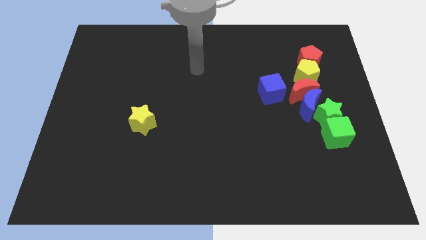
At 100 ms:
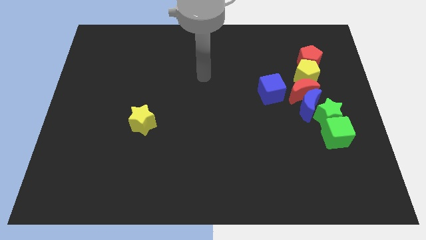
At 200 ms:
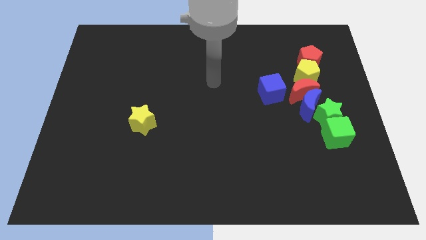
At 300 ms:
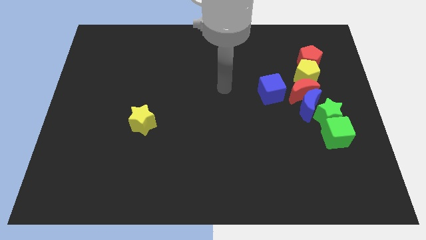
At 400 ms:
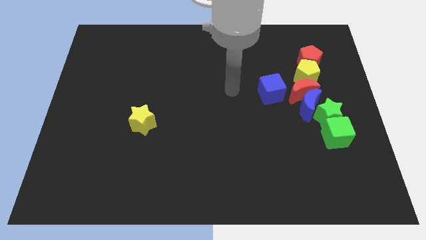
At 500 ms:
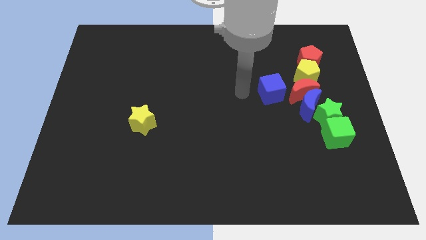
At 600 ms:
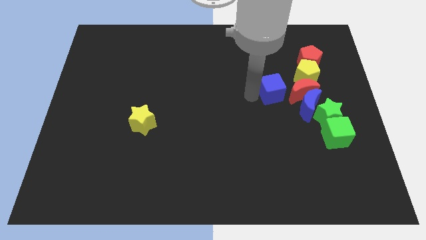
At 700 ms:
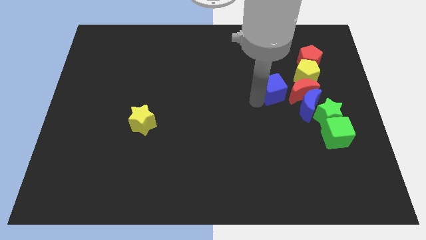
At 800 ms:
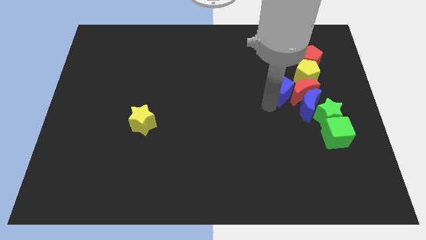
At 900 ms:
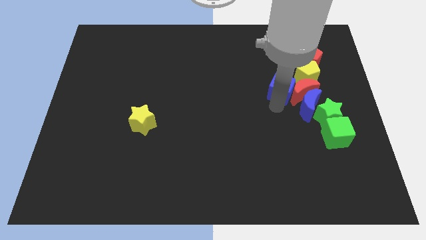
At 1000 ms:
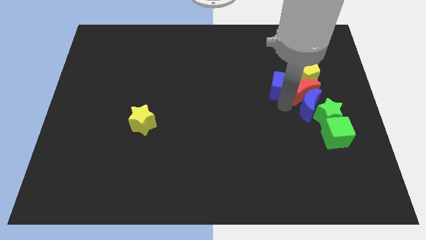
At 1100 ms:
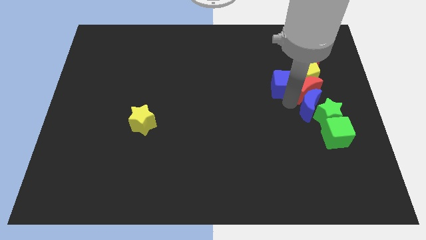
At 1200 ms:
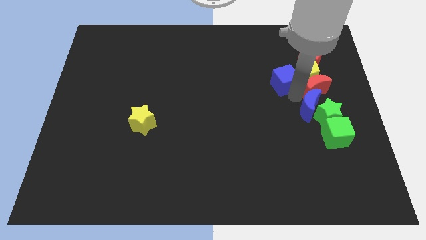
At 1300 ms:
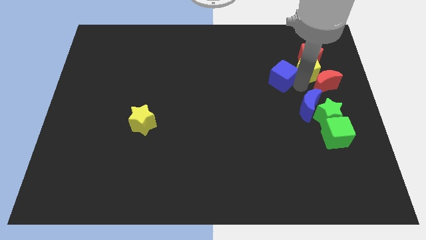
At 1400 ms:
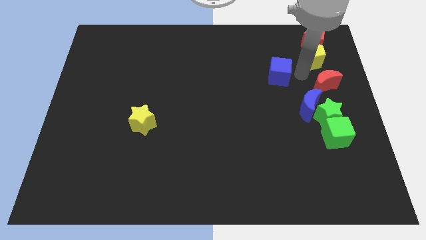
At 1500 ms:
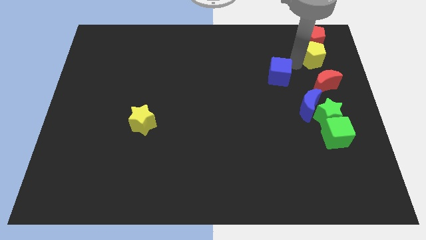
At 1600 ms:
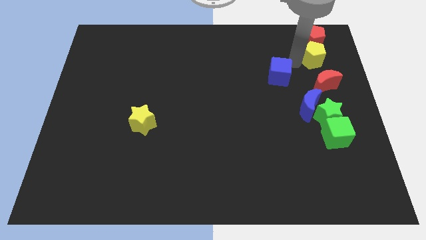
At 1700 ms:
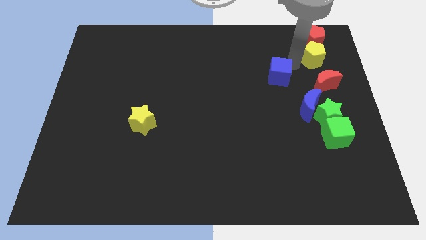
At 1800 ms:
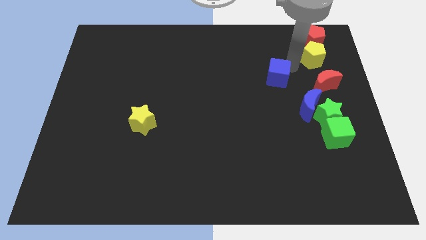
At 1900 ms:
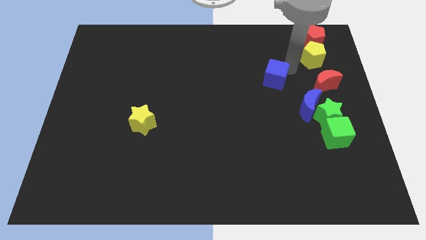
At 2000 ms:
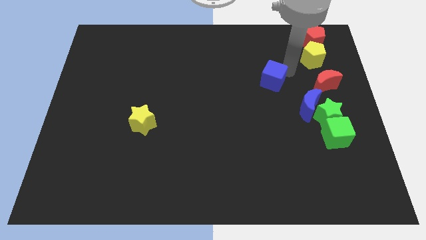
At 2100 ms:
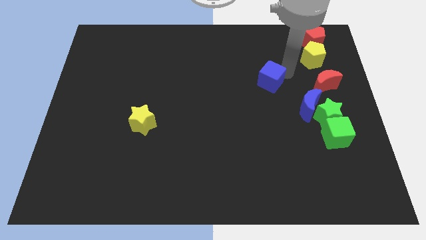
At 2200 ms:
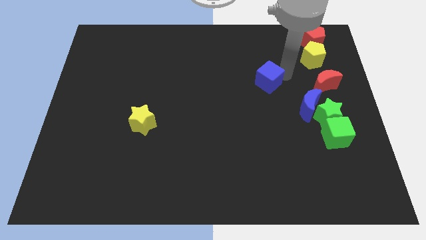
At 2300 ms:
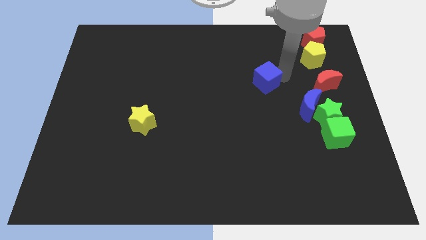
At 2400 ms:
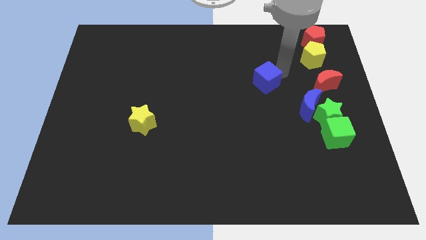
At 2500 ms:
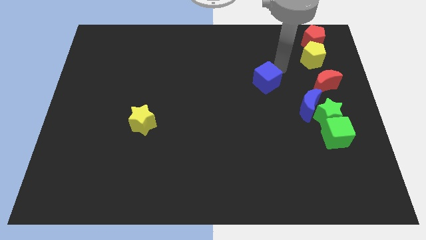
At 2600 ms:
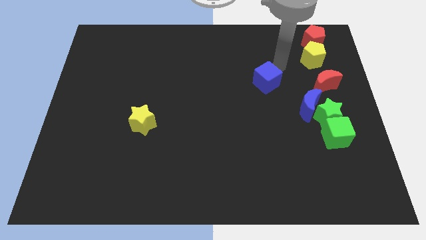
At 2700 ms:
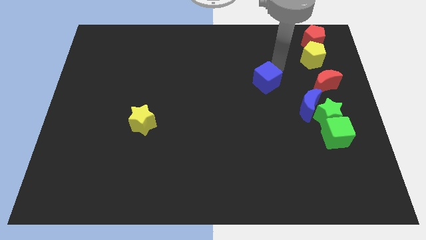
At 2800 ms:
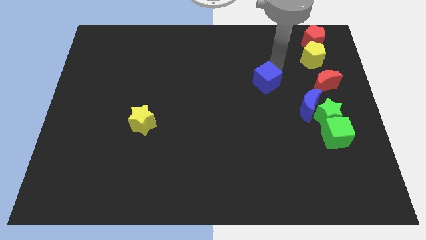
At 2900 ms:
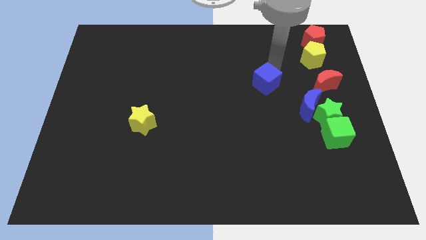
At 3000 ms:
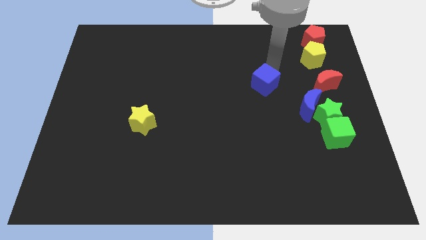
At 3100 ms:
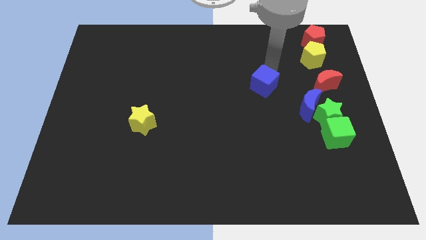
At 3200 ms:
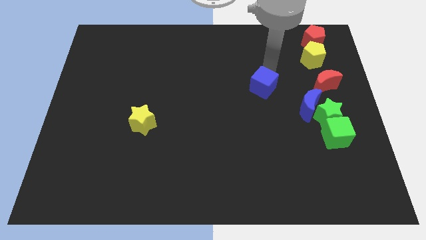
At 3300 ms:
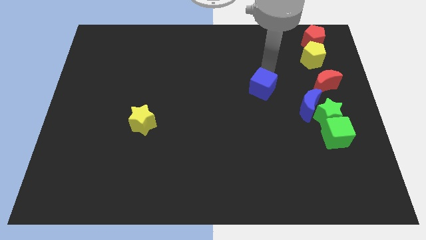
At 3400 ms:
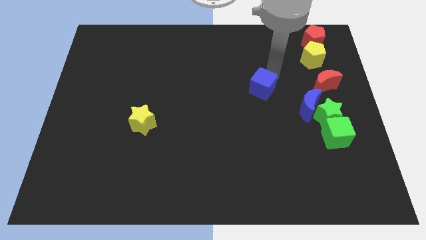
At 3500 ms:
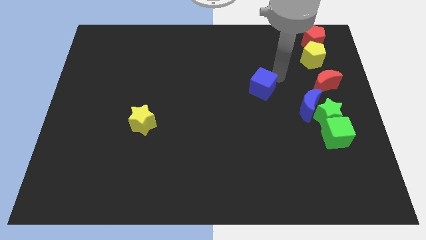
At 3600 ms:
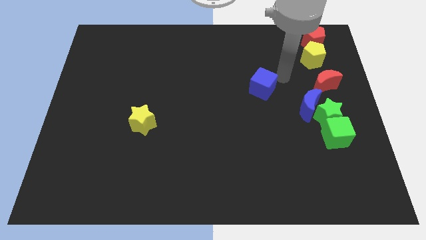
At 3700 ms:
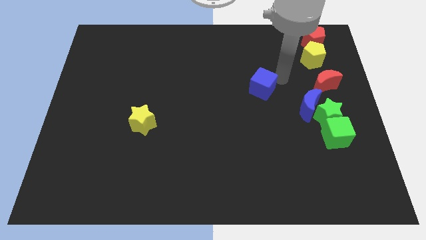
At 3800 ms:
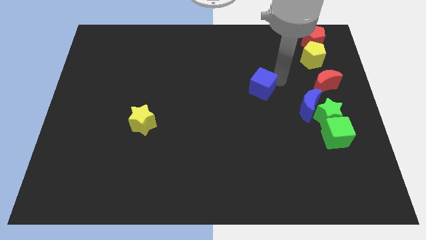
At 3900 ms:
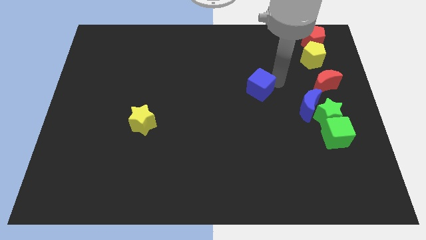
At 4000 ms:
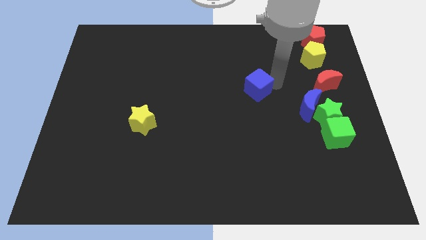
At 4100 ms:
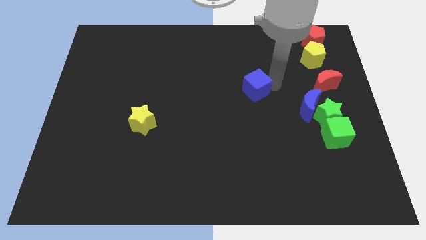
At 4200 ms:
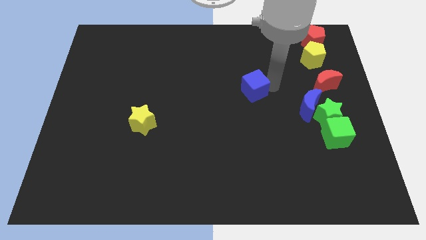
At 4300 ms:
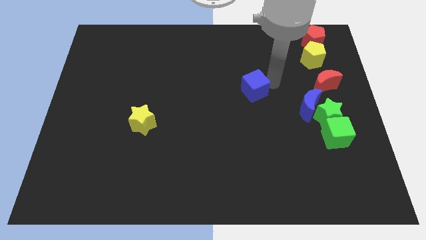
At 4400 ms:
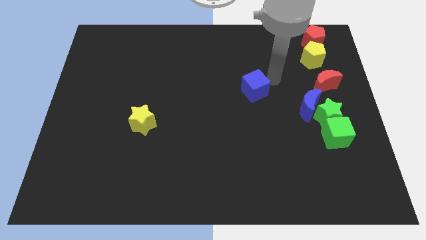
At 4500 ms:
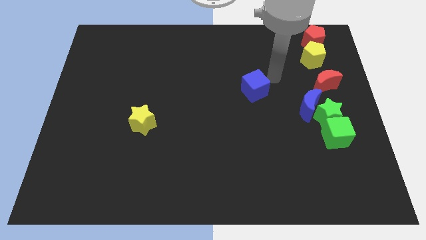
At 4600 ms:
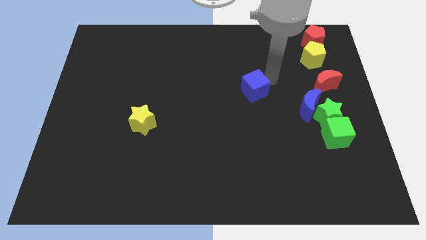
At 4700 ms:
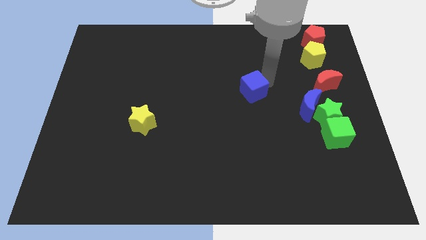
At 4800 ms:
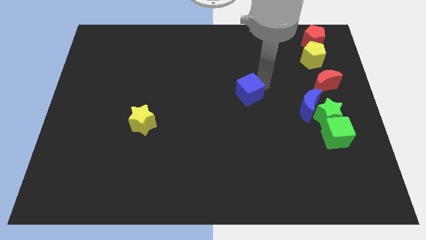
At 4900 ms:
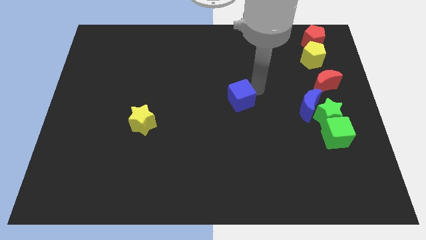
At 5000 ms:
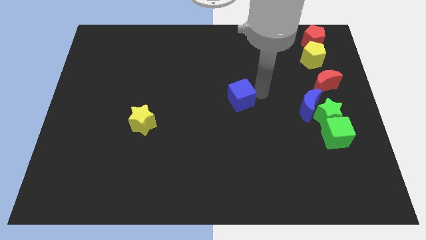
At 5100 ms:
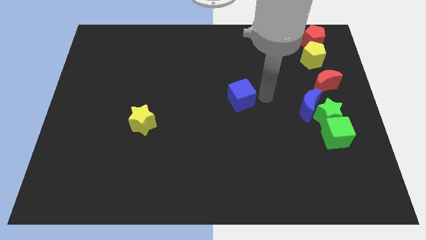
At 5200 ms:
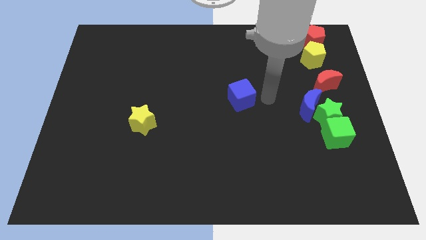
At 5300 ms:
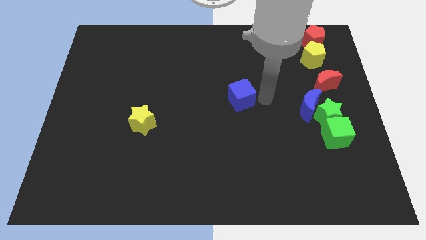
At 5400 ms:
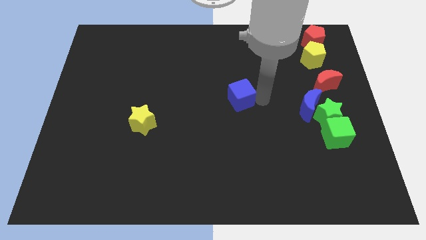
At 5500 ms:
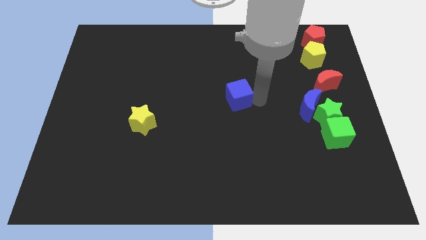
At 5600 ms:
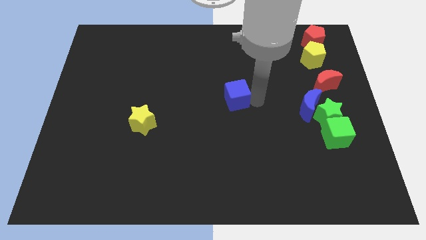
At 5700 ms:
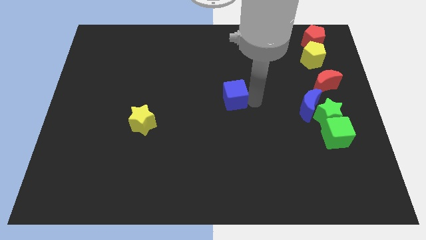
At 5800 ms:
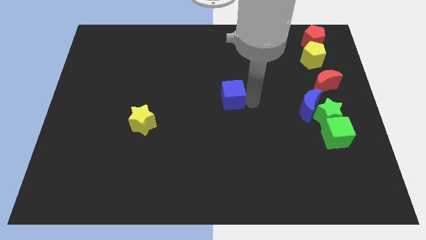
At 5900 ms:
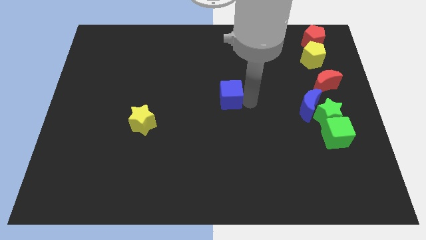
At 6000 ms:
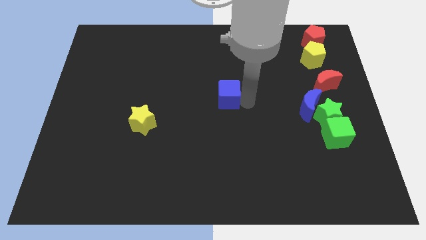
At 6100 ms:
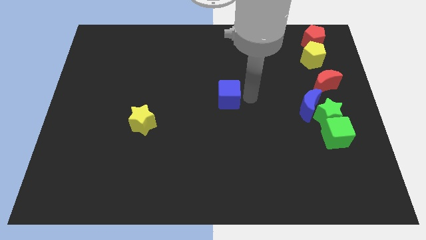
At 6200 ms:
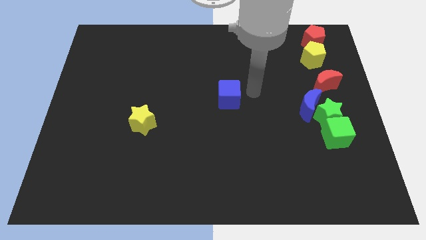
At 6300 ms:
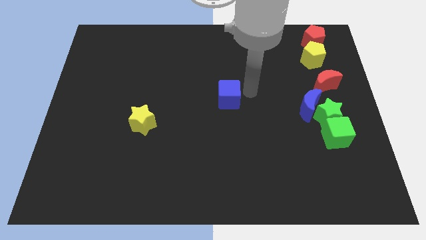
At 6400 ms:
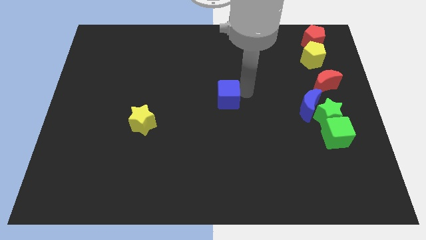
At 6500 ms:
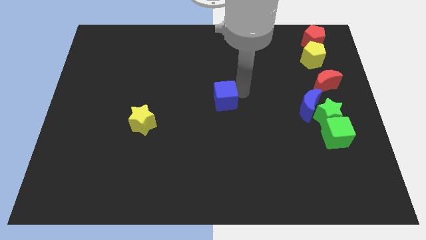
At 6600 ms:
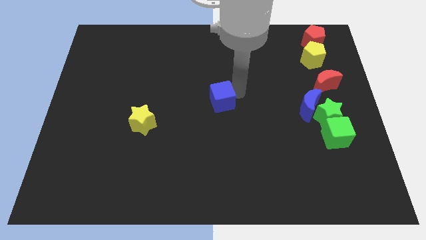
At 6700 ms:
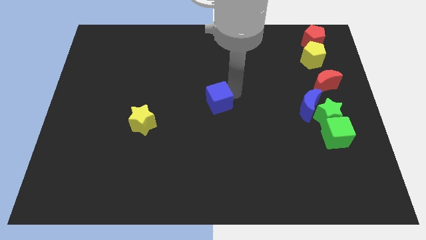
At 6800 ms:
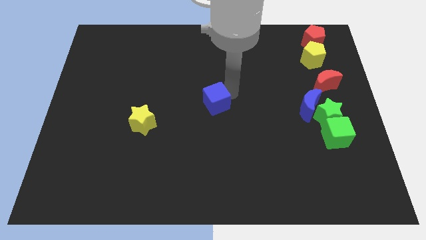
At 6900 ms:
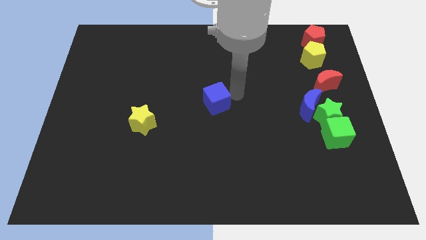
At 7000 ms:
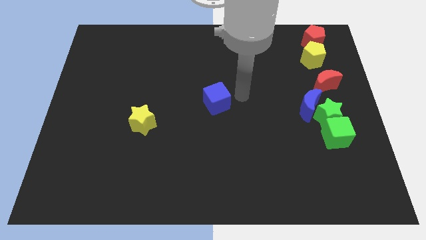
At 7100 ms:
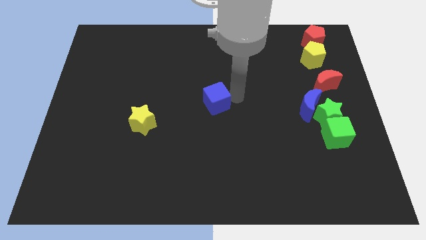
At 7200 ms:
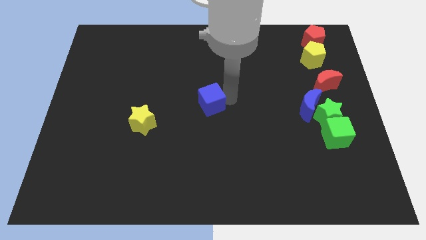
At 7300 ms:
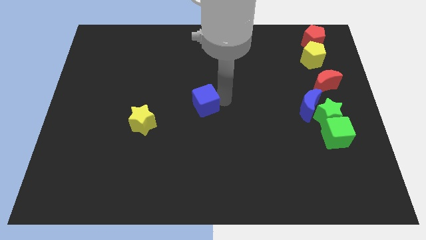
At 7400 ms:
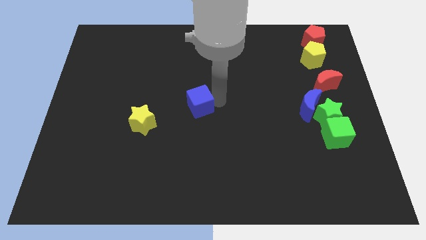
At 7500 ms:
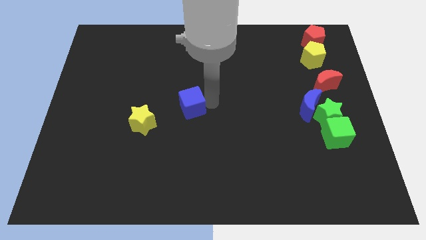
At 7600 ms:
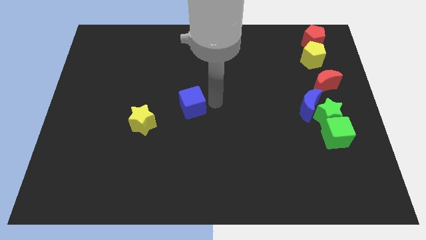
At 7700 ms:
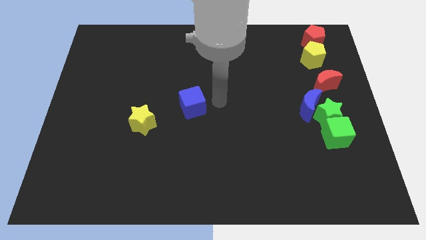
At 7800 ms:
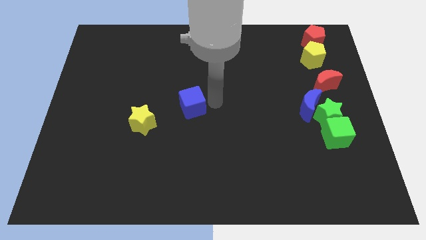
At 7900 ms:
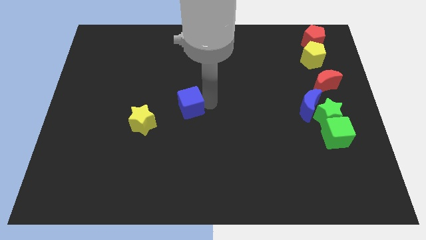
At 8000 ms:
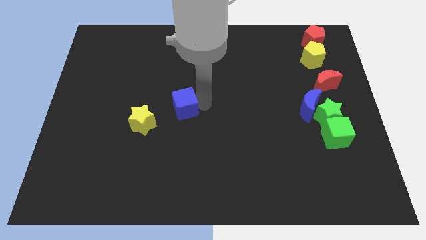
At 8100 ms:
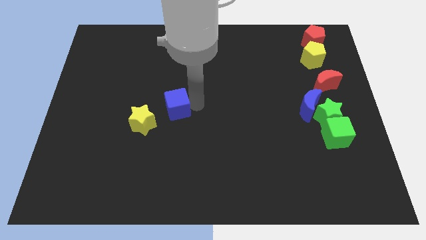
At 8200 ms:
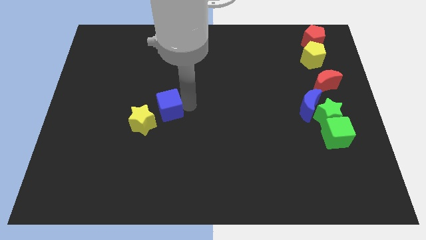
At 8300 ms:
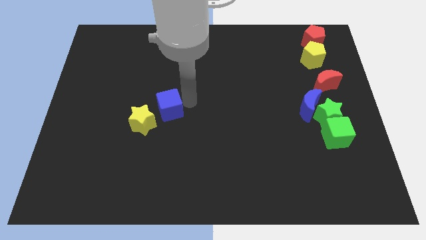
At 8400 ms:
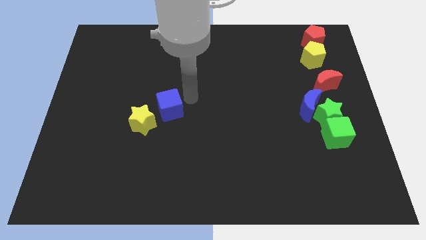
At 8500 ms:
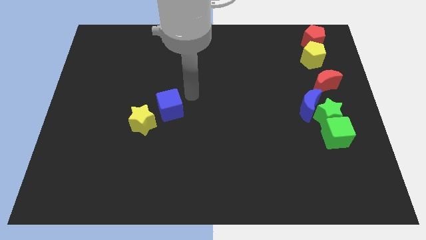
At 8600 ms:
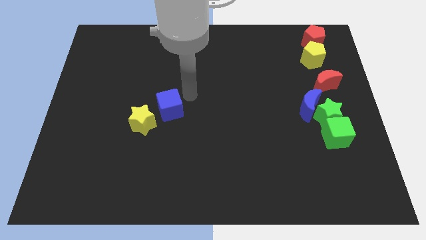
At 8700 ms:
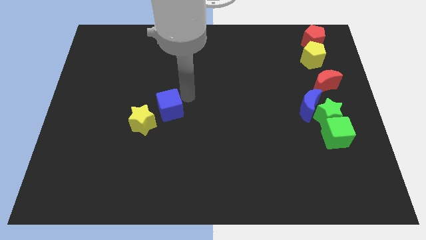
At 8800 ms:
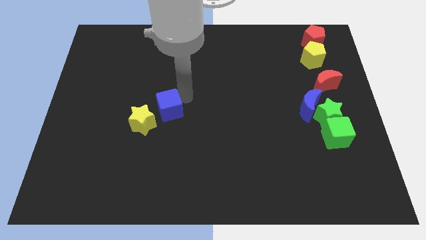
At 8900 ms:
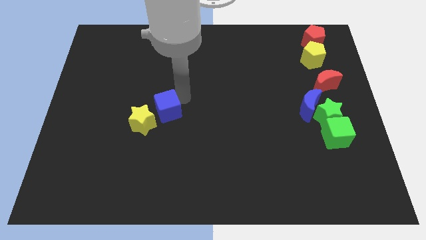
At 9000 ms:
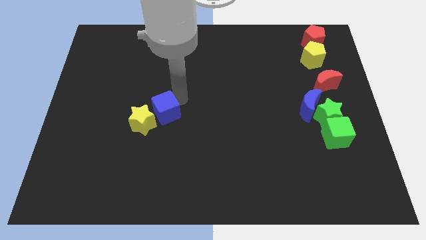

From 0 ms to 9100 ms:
slide the blue cube to the yellow star
